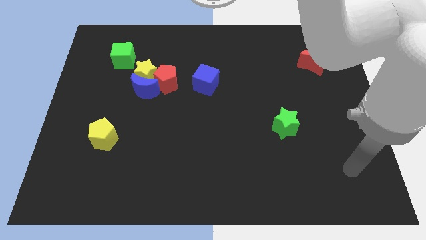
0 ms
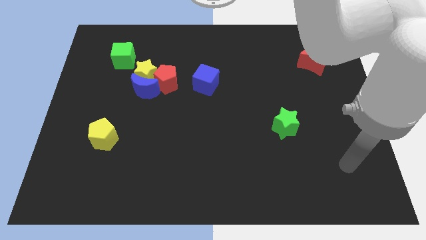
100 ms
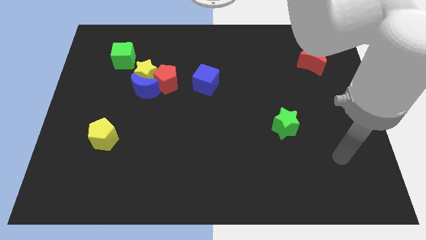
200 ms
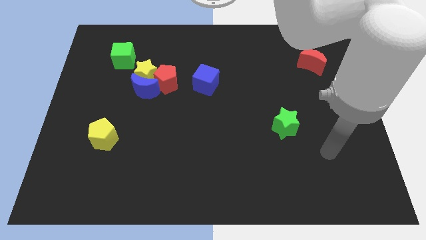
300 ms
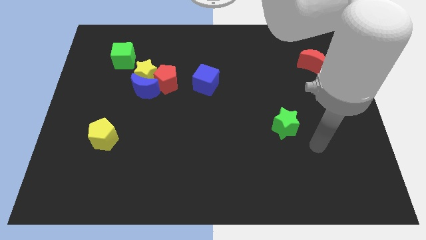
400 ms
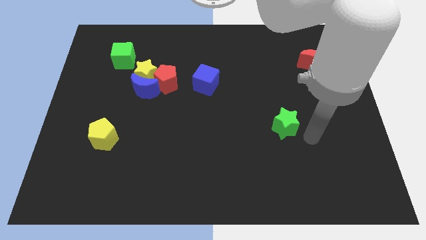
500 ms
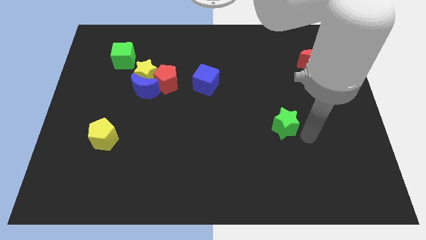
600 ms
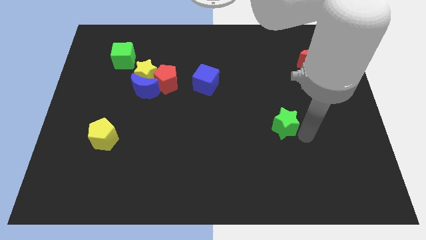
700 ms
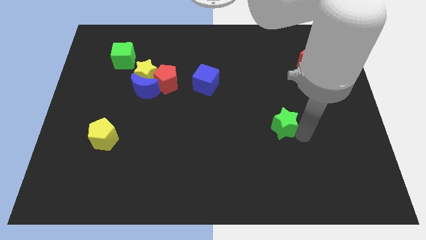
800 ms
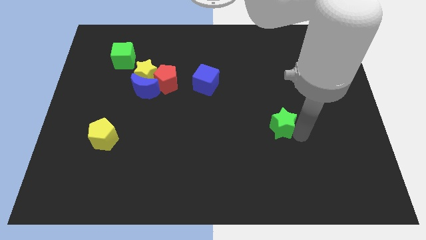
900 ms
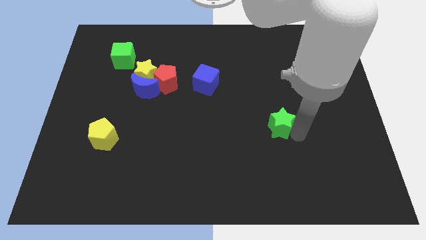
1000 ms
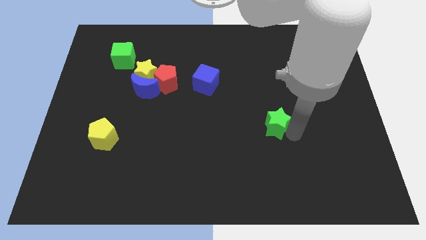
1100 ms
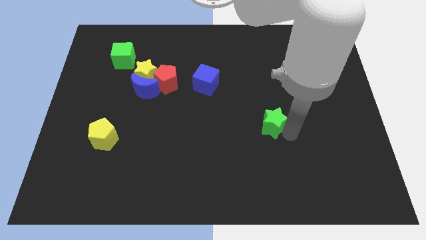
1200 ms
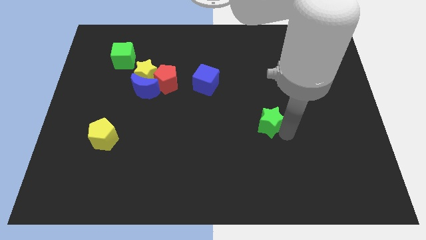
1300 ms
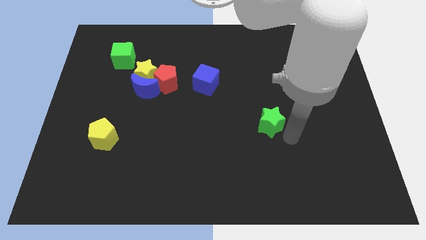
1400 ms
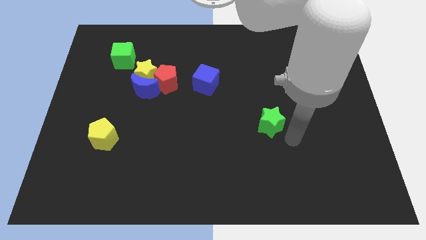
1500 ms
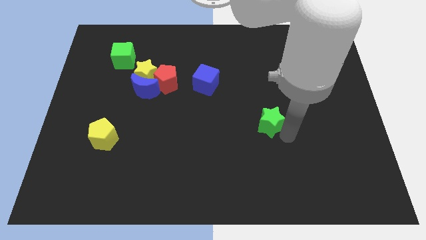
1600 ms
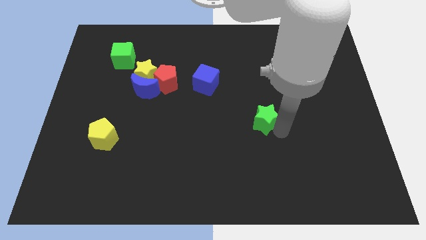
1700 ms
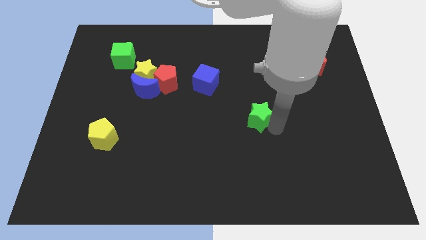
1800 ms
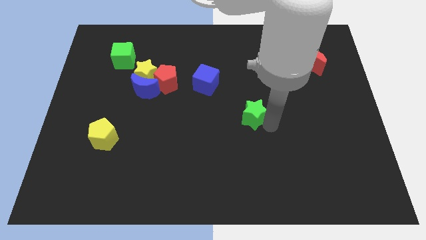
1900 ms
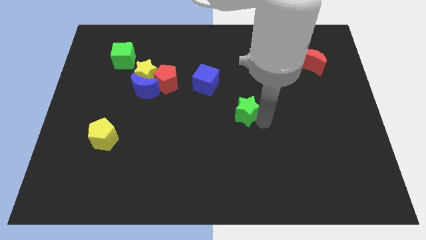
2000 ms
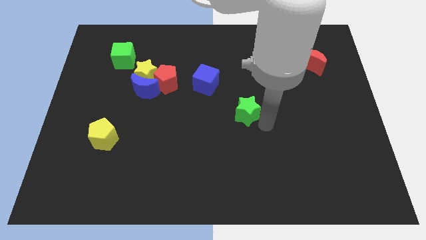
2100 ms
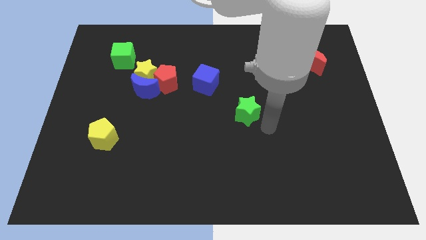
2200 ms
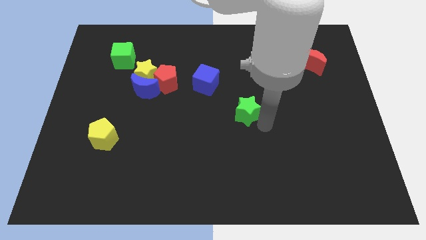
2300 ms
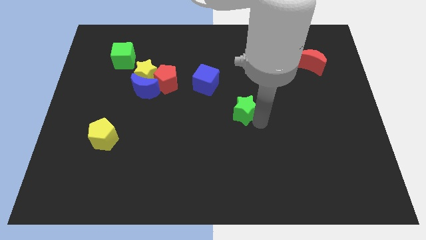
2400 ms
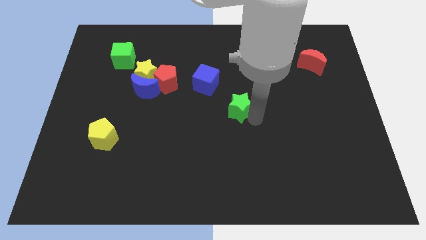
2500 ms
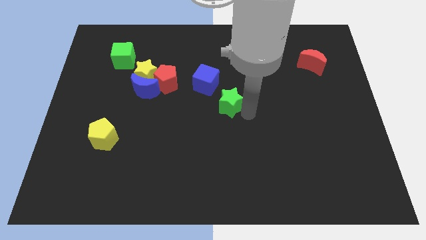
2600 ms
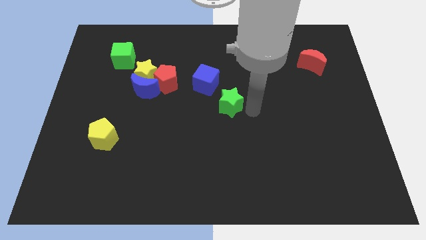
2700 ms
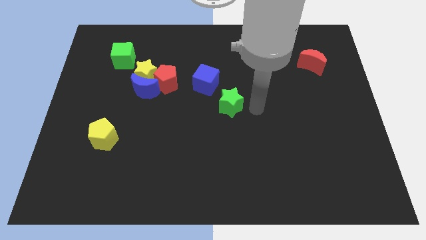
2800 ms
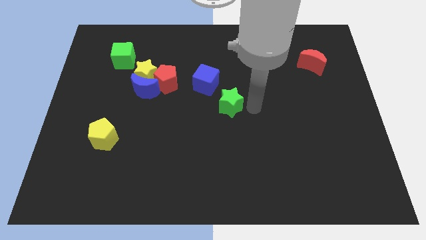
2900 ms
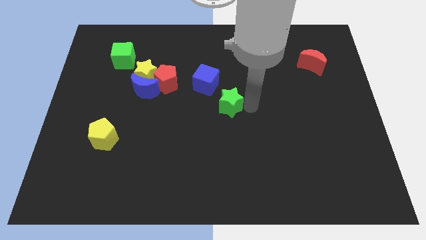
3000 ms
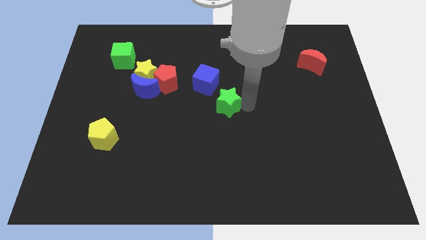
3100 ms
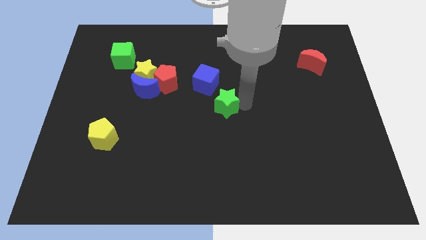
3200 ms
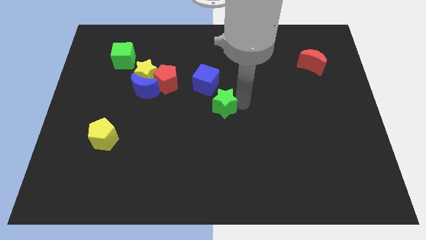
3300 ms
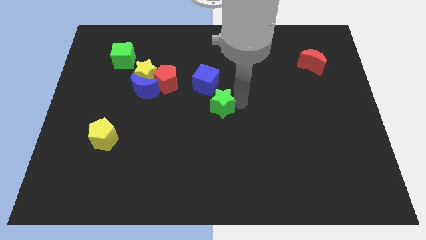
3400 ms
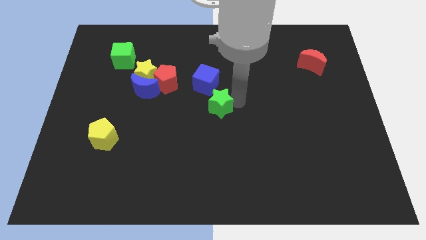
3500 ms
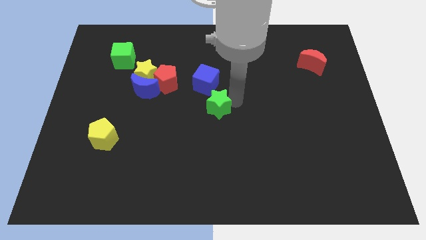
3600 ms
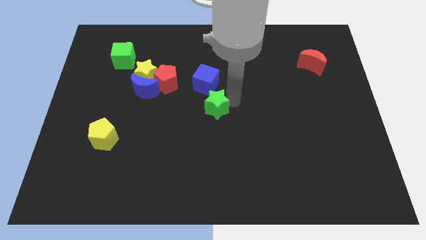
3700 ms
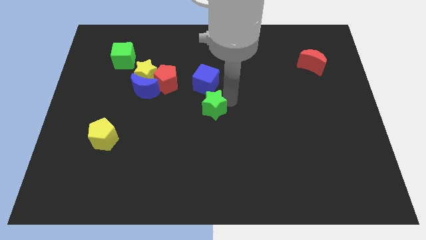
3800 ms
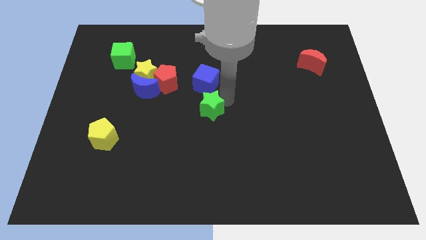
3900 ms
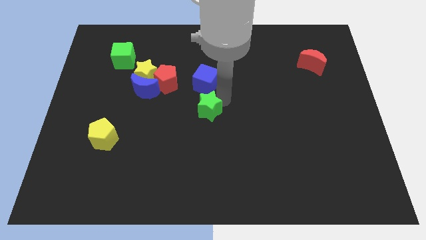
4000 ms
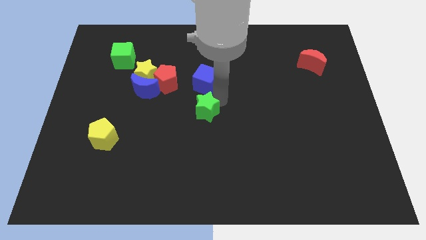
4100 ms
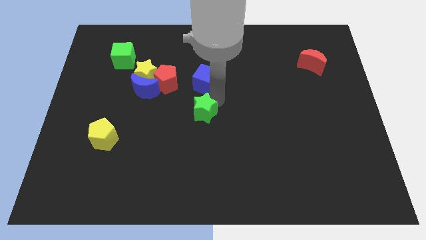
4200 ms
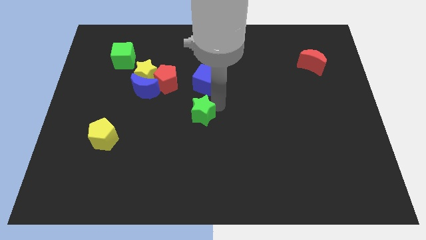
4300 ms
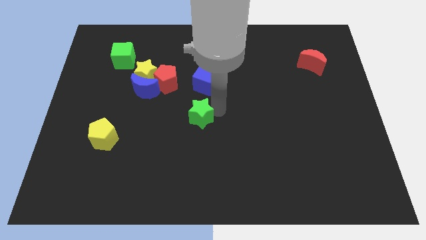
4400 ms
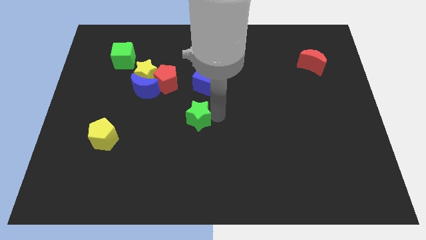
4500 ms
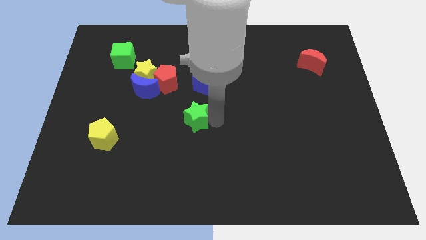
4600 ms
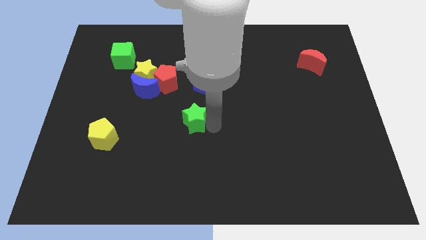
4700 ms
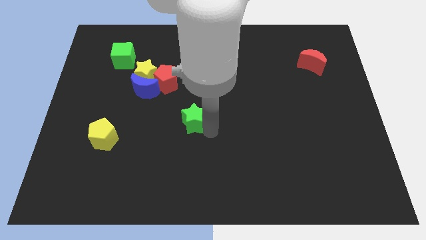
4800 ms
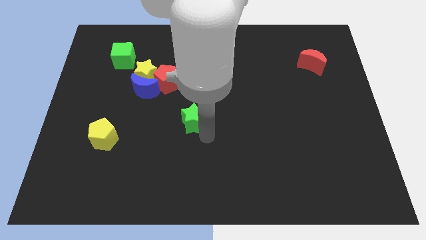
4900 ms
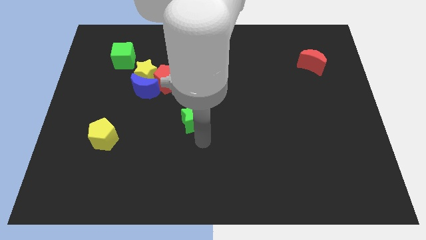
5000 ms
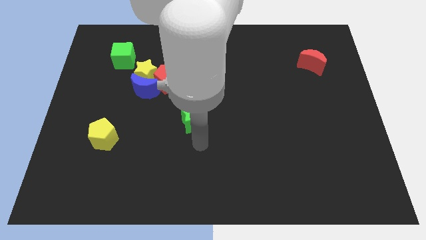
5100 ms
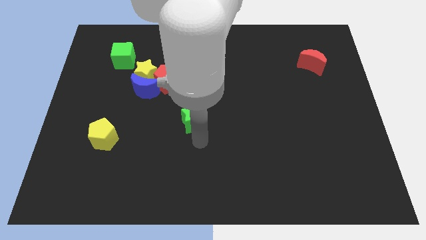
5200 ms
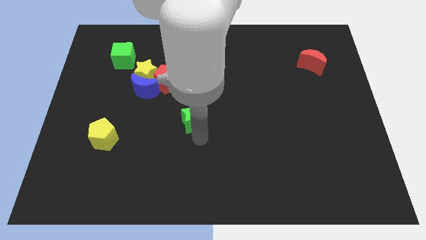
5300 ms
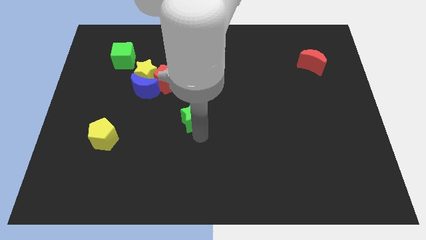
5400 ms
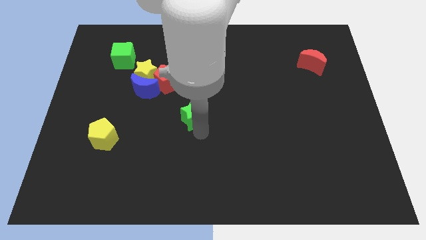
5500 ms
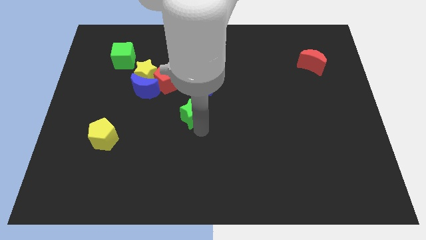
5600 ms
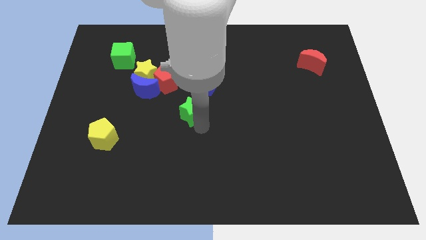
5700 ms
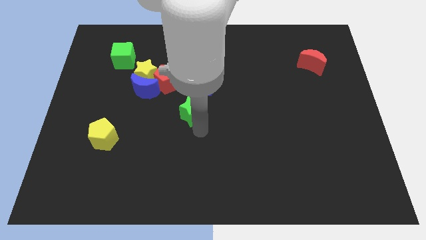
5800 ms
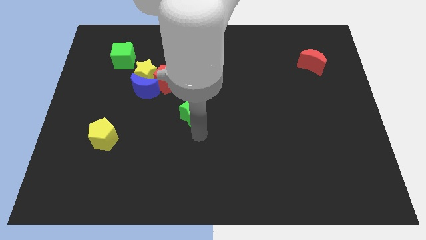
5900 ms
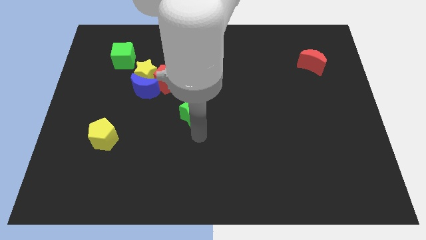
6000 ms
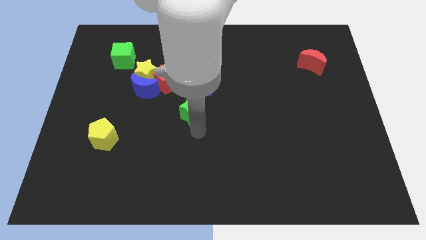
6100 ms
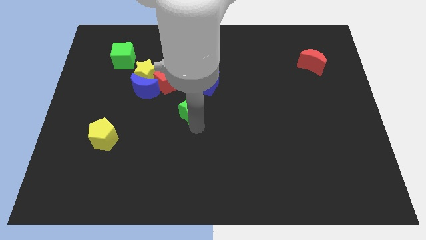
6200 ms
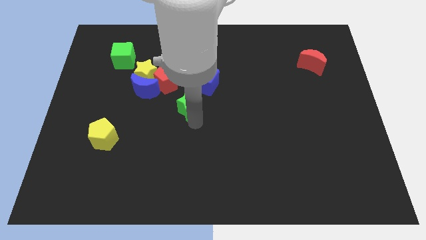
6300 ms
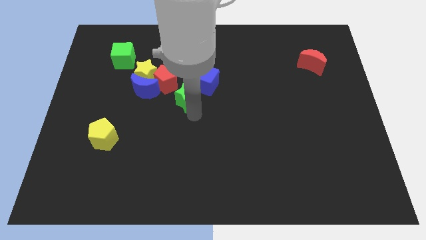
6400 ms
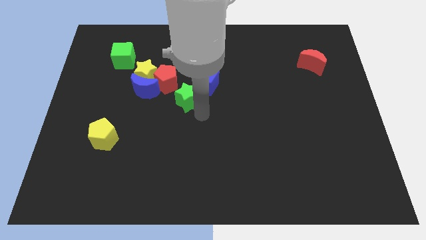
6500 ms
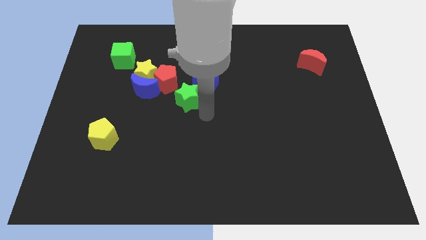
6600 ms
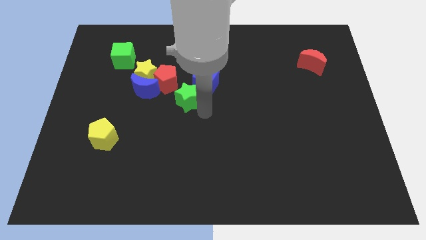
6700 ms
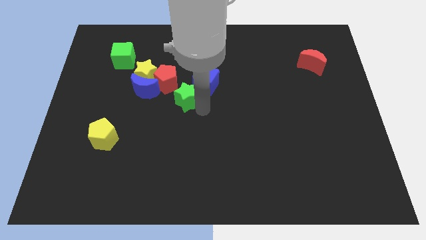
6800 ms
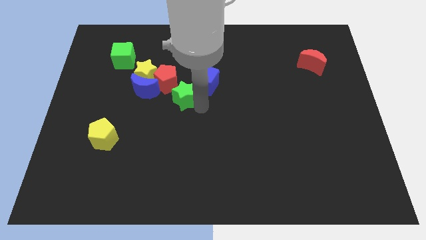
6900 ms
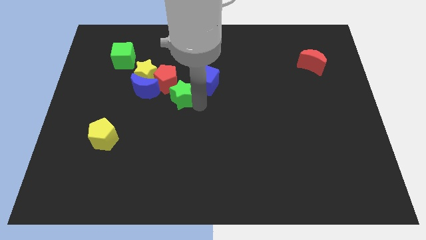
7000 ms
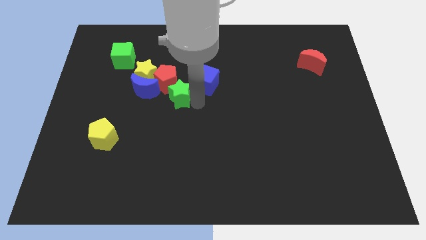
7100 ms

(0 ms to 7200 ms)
put the green star towards the red pentagon

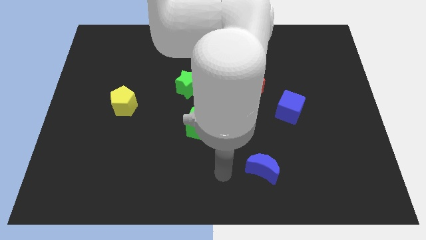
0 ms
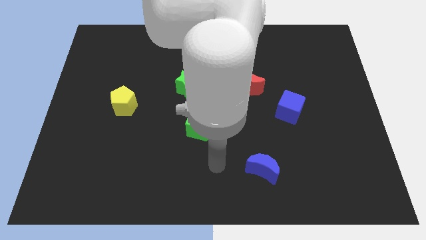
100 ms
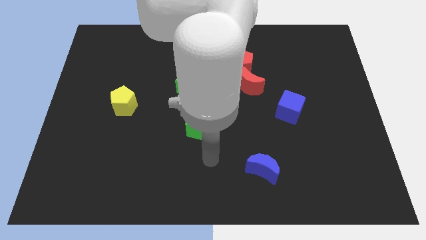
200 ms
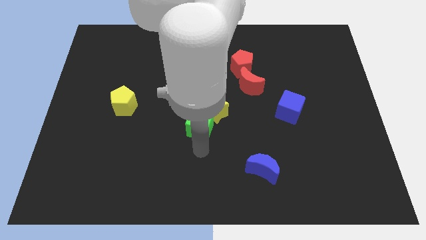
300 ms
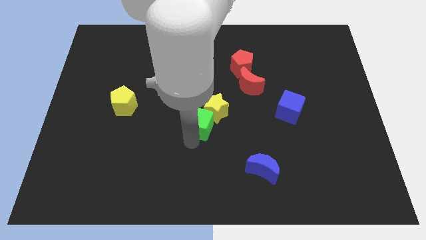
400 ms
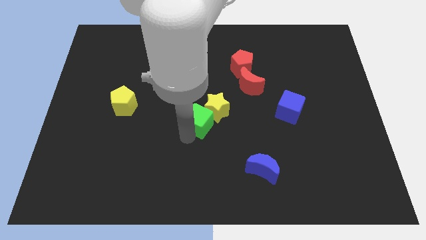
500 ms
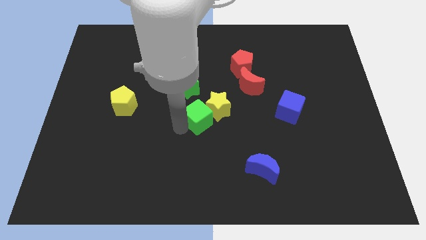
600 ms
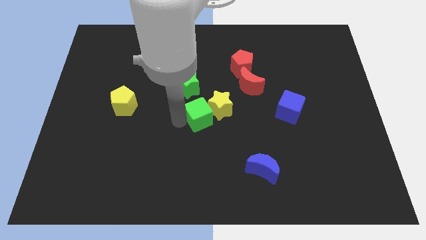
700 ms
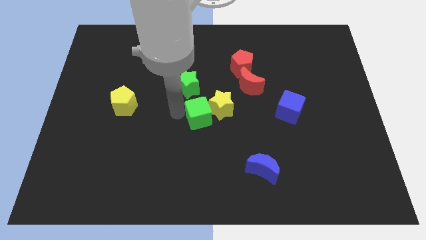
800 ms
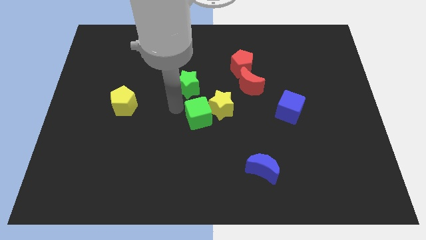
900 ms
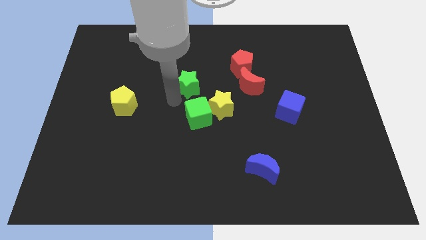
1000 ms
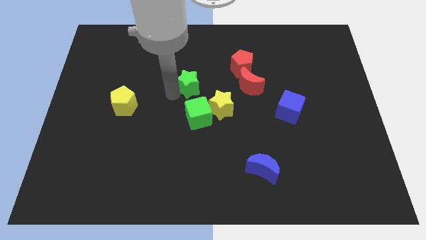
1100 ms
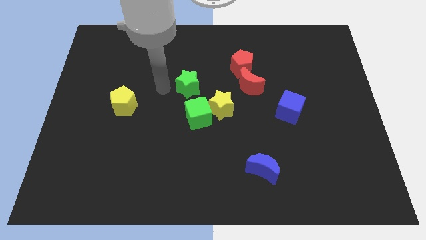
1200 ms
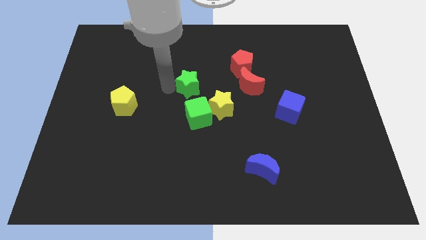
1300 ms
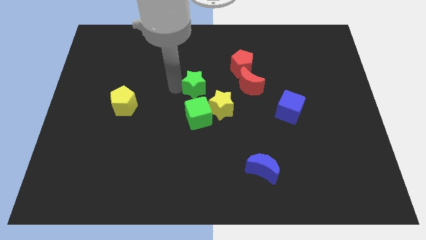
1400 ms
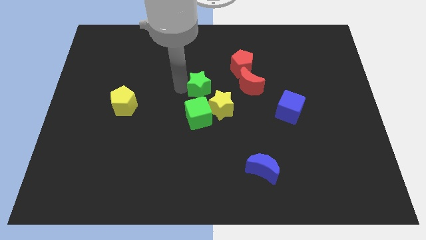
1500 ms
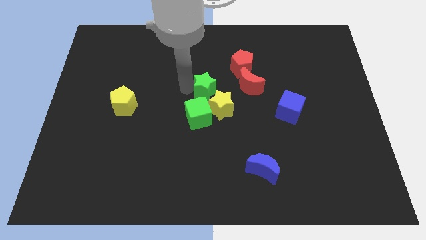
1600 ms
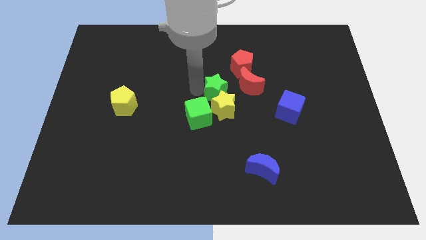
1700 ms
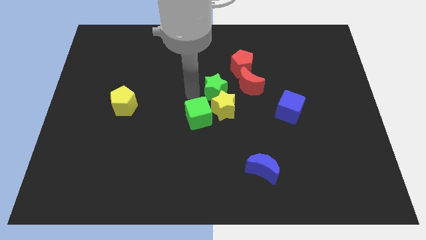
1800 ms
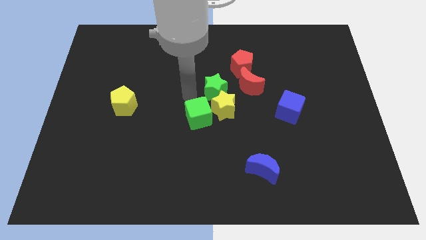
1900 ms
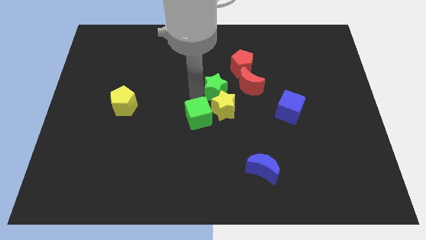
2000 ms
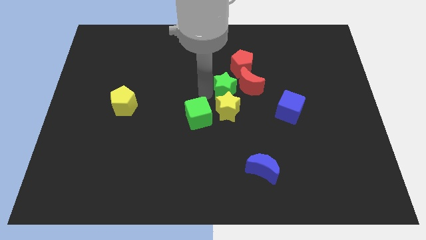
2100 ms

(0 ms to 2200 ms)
push the green star close to the red moon
